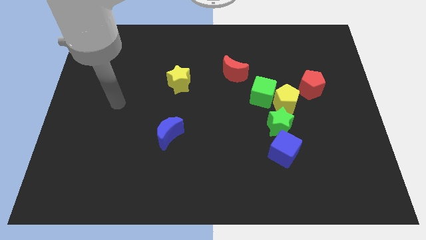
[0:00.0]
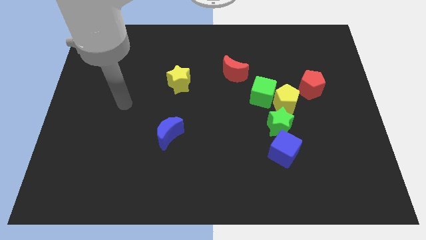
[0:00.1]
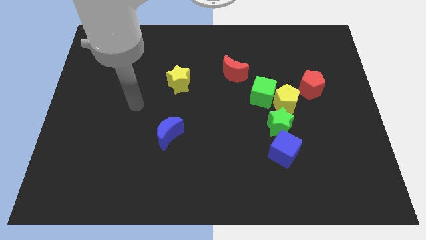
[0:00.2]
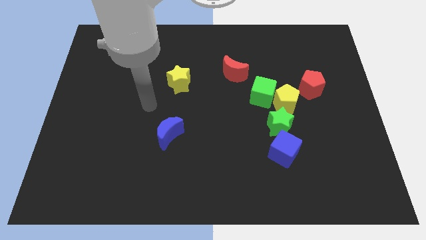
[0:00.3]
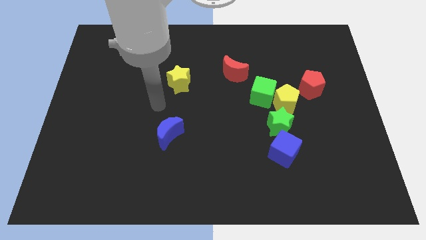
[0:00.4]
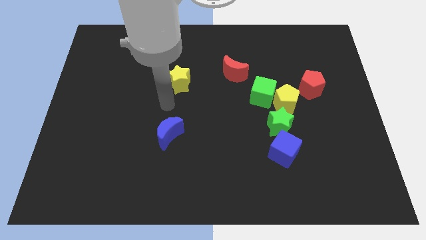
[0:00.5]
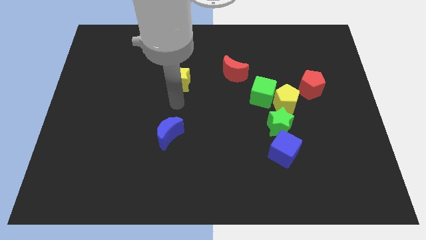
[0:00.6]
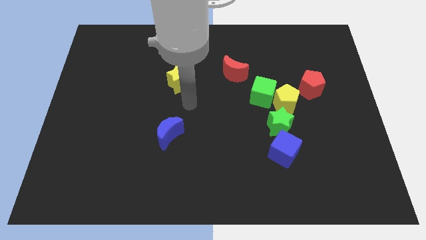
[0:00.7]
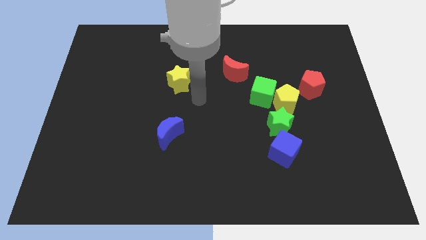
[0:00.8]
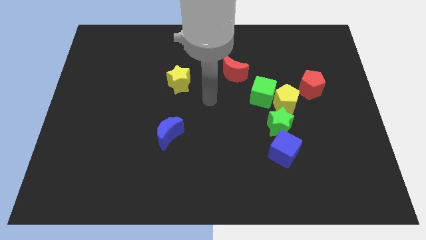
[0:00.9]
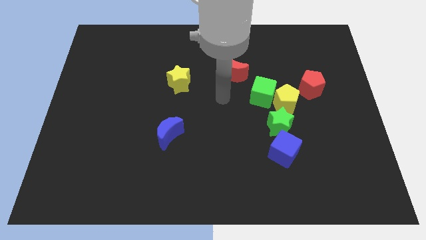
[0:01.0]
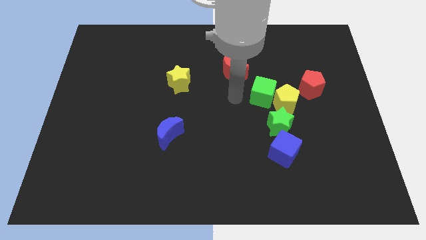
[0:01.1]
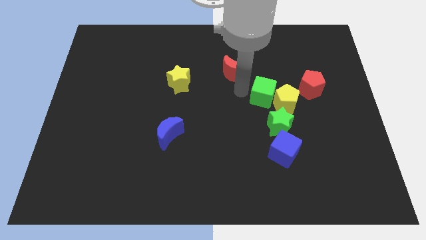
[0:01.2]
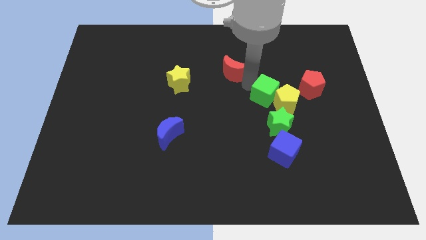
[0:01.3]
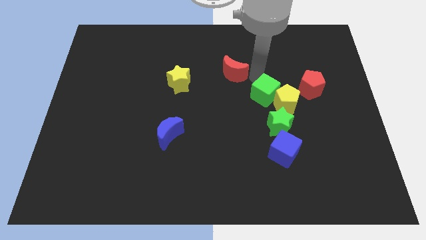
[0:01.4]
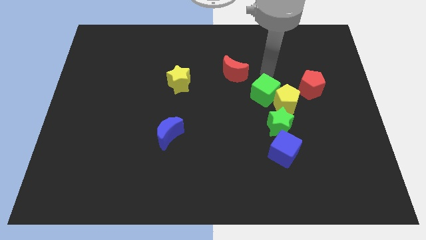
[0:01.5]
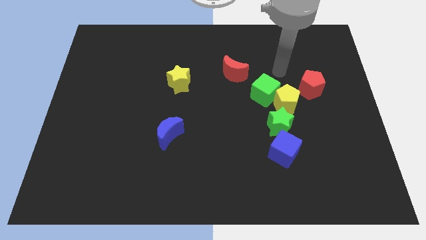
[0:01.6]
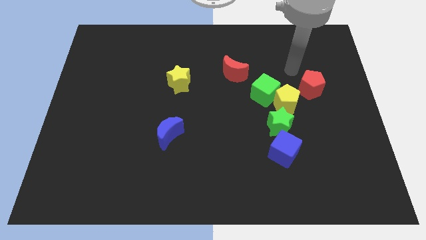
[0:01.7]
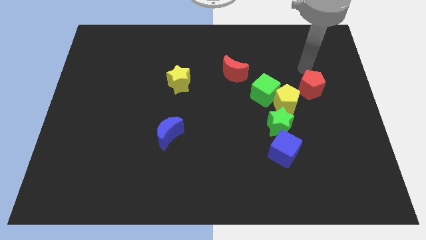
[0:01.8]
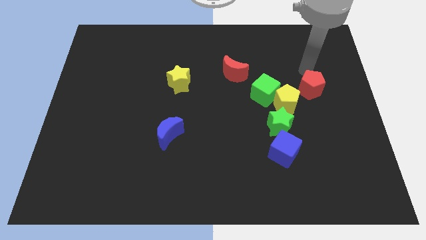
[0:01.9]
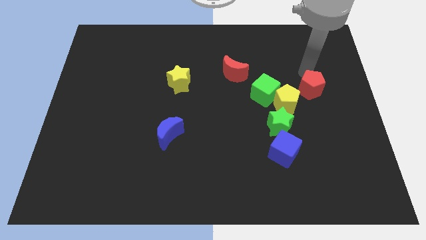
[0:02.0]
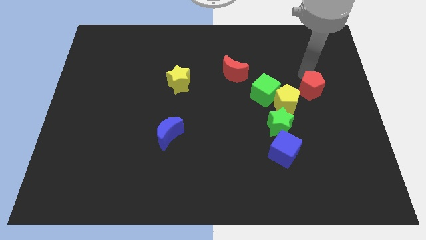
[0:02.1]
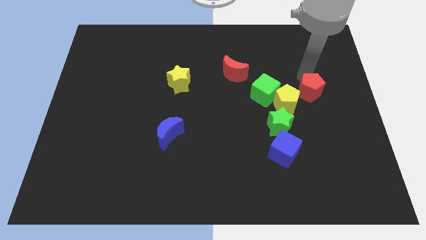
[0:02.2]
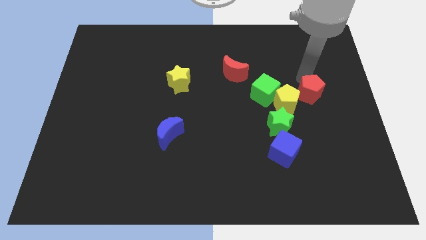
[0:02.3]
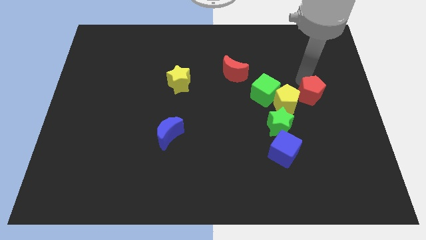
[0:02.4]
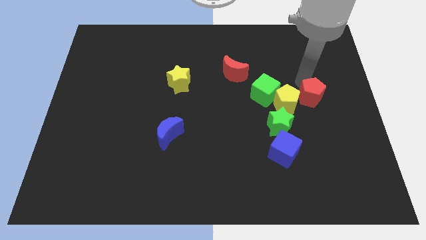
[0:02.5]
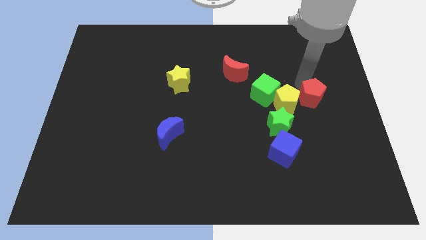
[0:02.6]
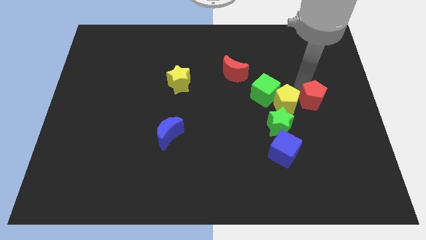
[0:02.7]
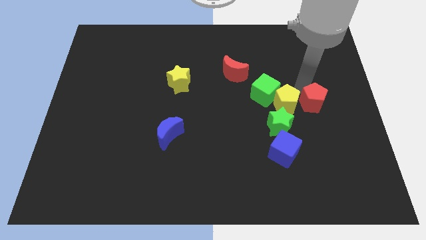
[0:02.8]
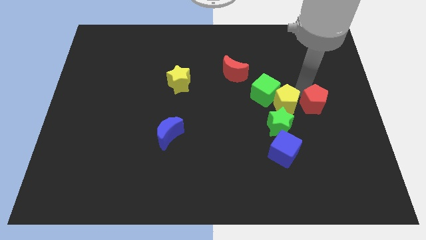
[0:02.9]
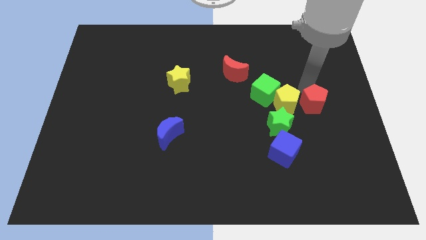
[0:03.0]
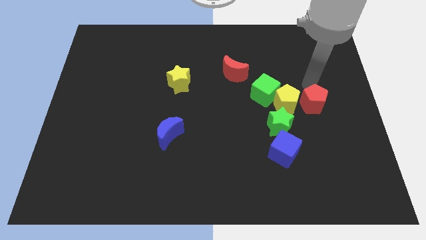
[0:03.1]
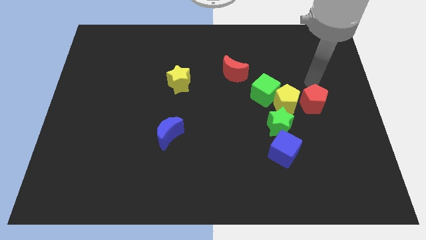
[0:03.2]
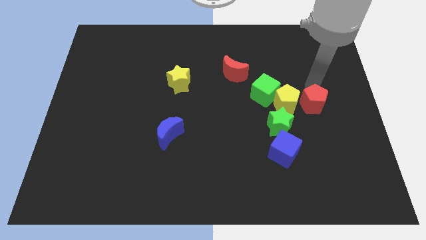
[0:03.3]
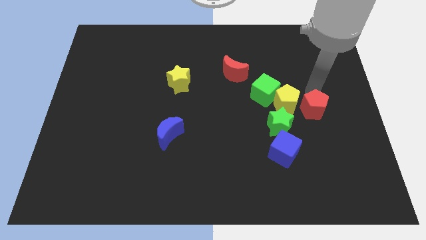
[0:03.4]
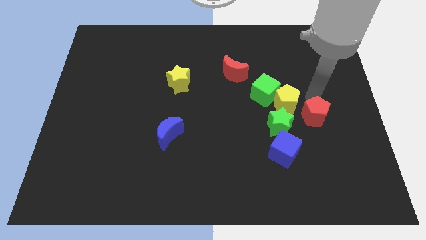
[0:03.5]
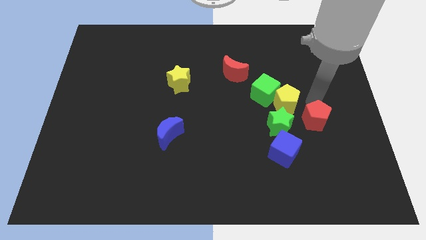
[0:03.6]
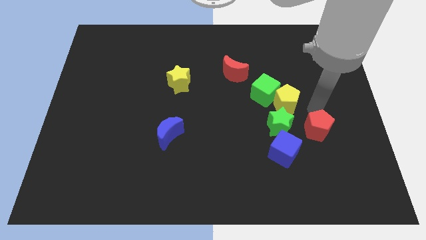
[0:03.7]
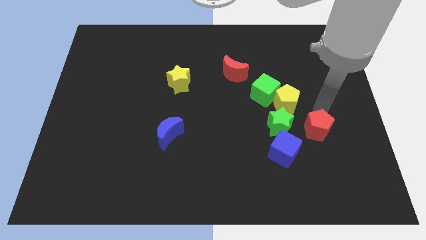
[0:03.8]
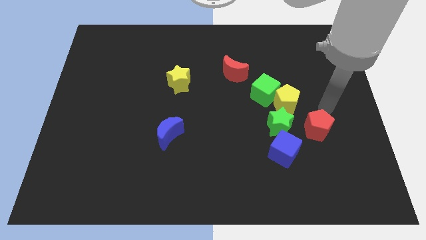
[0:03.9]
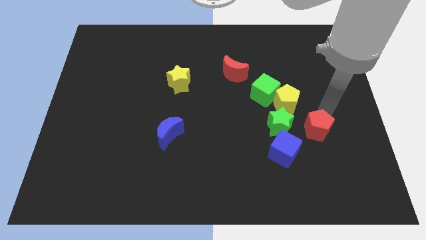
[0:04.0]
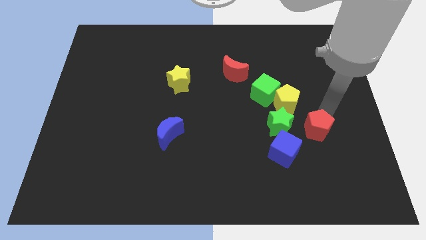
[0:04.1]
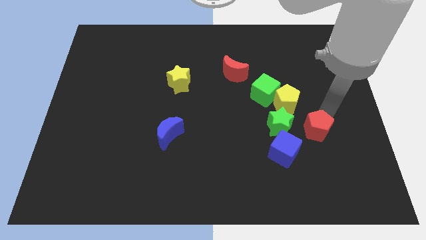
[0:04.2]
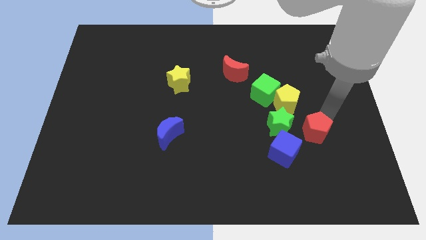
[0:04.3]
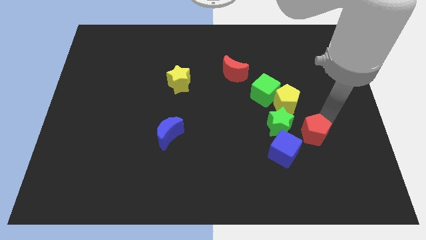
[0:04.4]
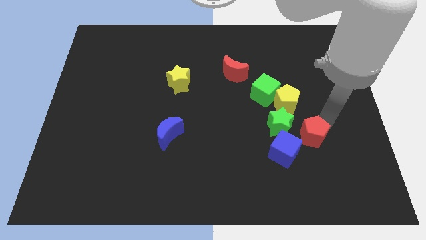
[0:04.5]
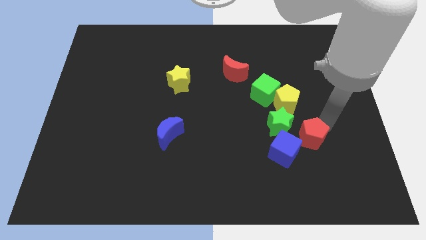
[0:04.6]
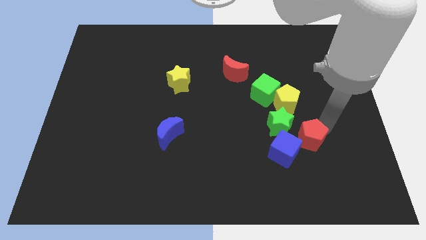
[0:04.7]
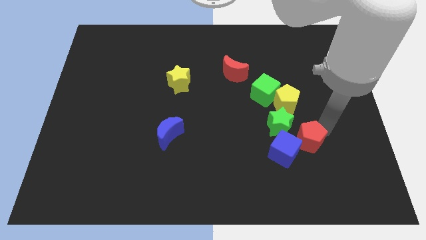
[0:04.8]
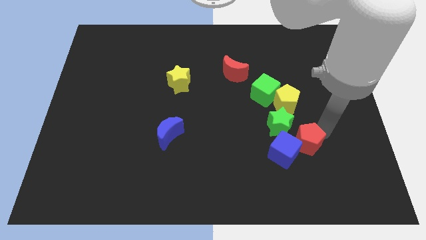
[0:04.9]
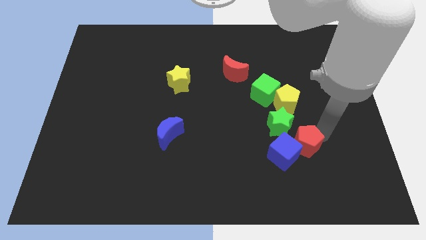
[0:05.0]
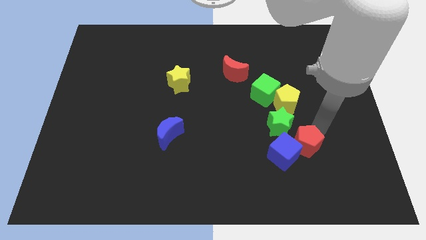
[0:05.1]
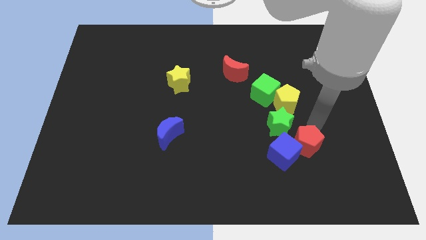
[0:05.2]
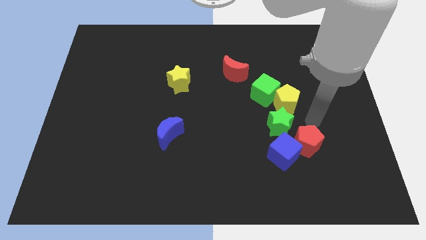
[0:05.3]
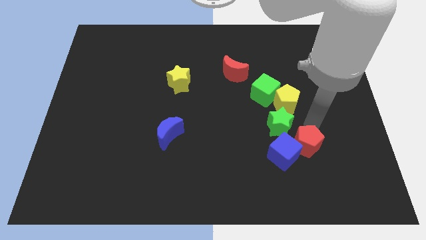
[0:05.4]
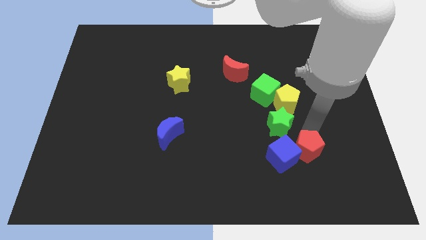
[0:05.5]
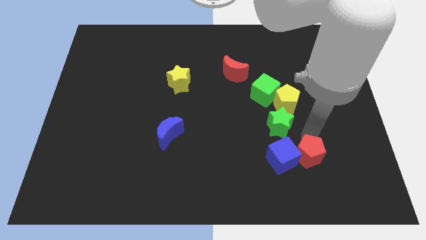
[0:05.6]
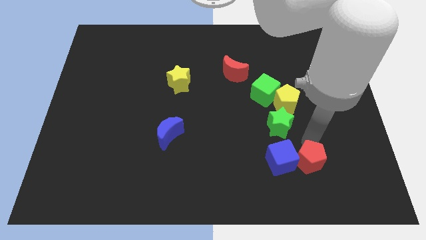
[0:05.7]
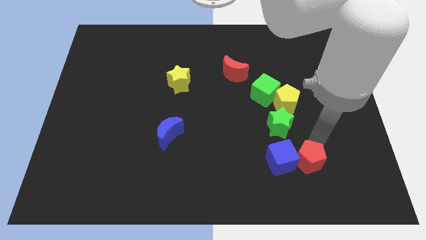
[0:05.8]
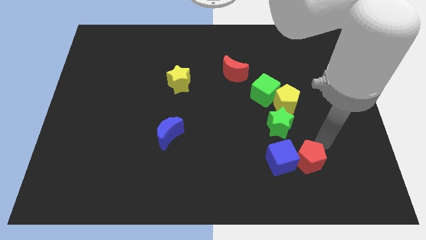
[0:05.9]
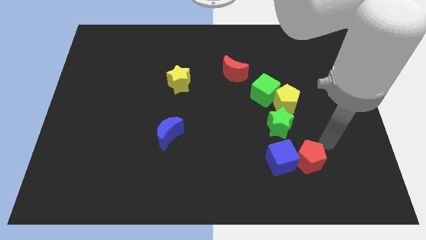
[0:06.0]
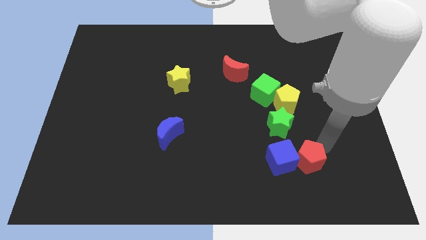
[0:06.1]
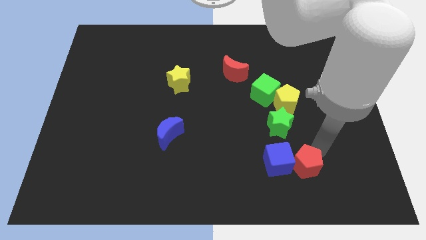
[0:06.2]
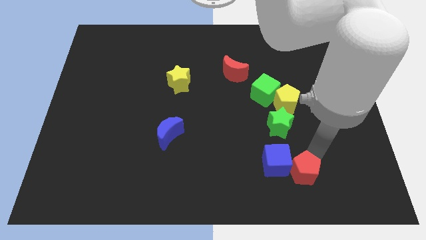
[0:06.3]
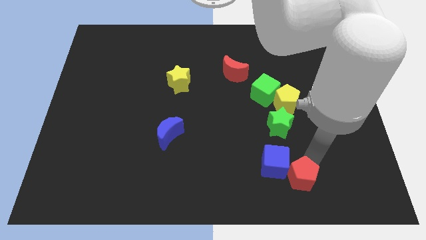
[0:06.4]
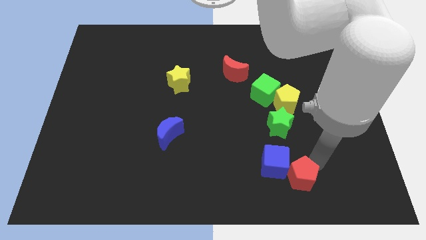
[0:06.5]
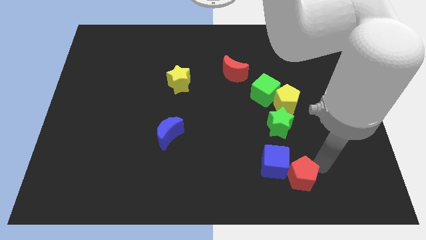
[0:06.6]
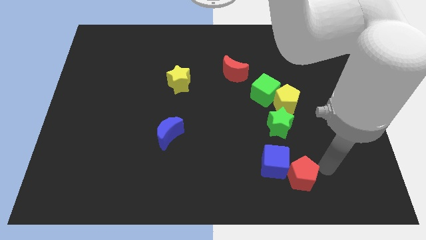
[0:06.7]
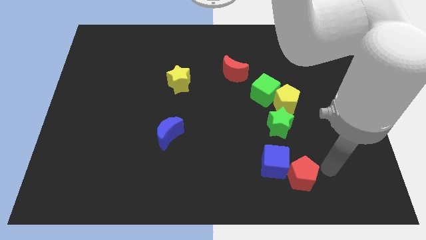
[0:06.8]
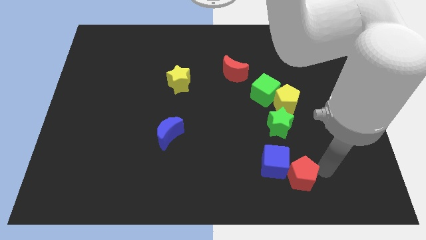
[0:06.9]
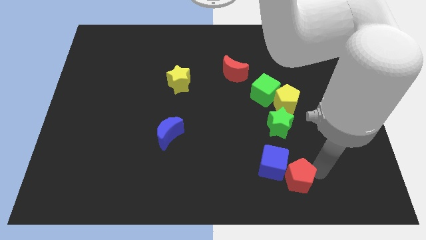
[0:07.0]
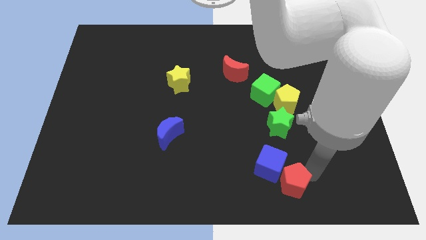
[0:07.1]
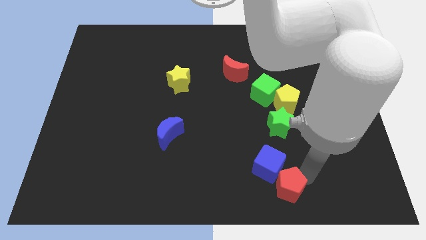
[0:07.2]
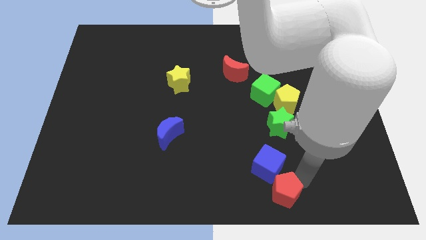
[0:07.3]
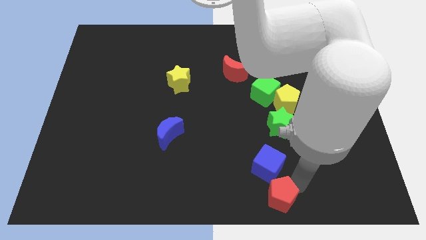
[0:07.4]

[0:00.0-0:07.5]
push the red pentagon to the bottom
